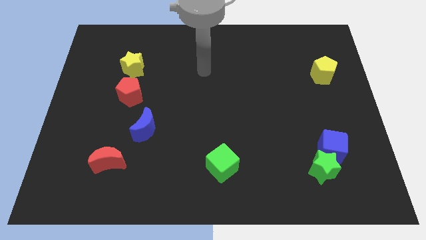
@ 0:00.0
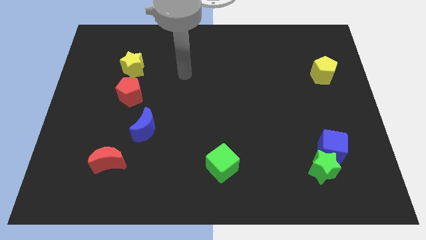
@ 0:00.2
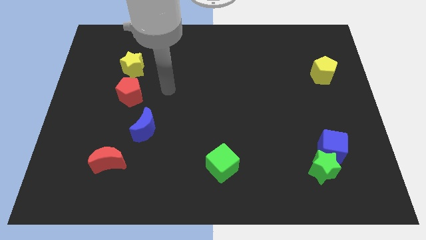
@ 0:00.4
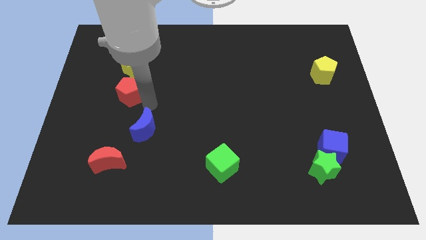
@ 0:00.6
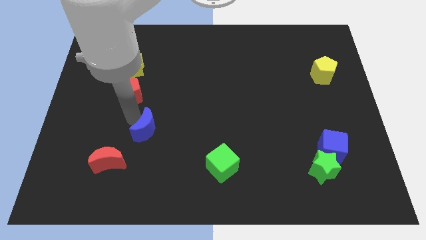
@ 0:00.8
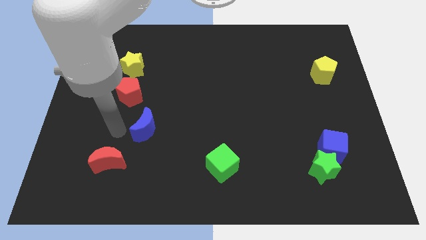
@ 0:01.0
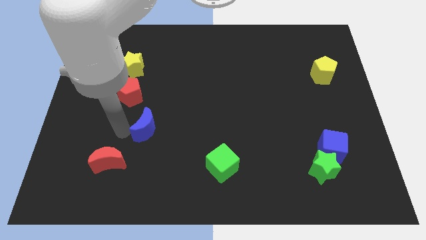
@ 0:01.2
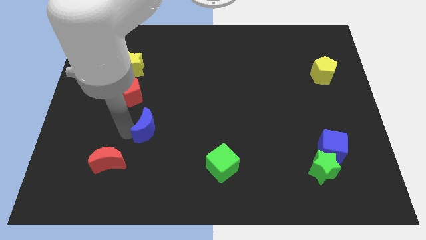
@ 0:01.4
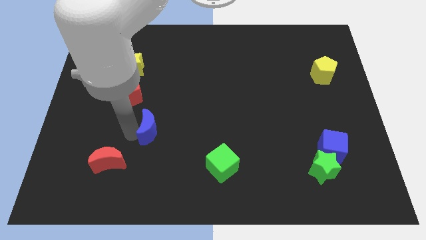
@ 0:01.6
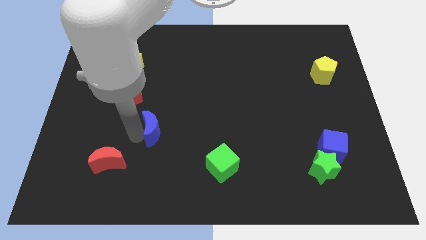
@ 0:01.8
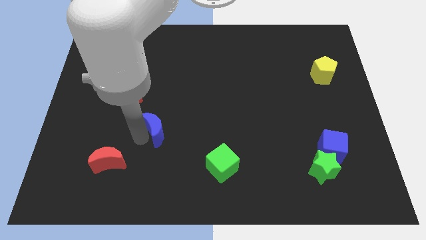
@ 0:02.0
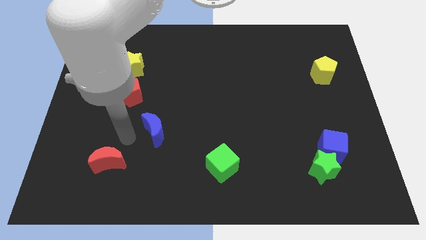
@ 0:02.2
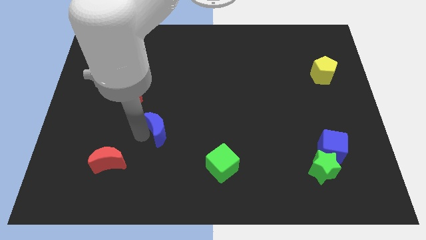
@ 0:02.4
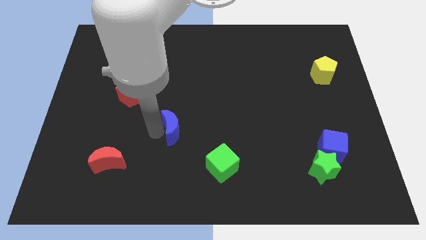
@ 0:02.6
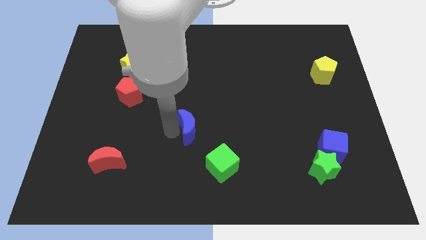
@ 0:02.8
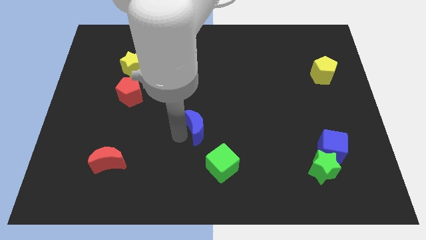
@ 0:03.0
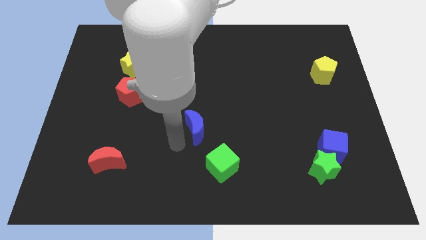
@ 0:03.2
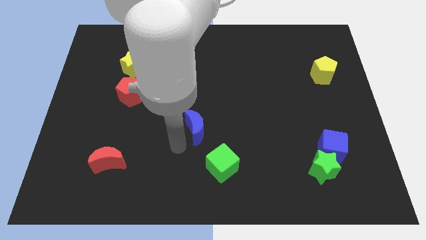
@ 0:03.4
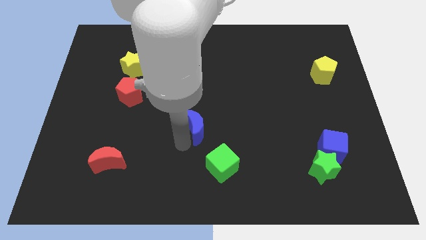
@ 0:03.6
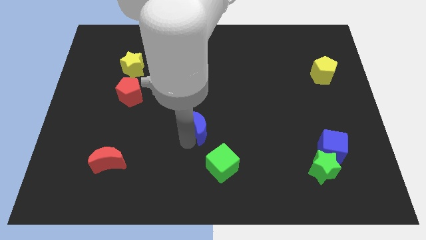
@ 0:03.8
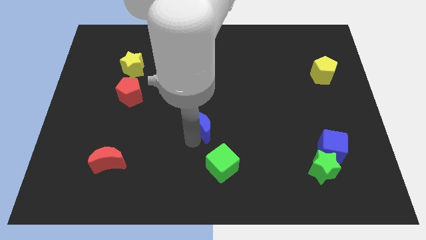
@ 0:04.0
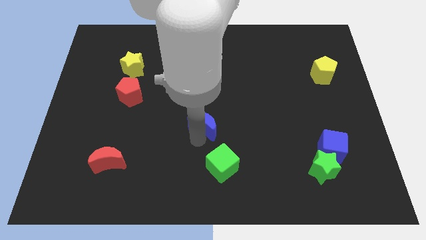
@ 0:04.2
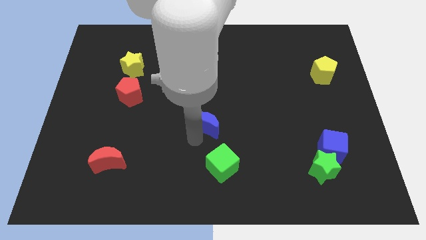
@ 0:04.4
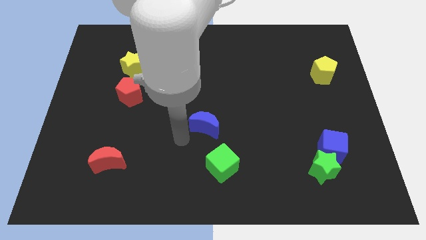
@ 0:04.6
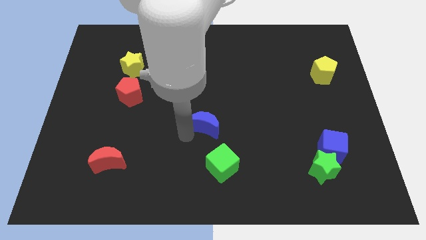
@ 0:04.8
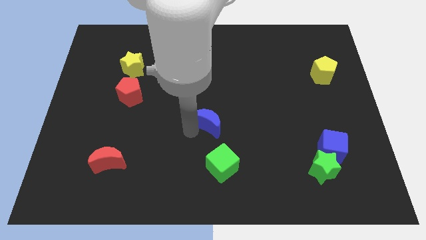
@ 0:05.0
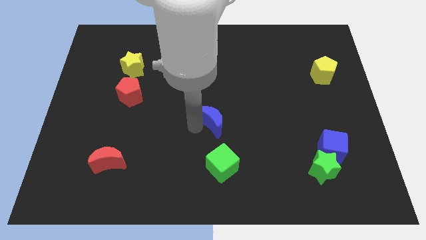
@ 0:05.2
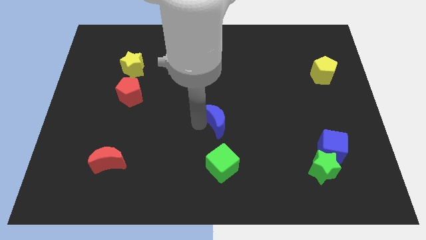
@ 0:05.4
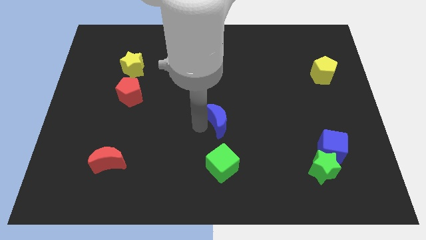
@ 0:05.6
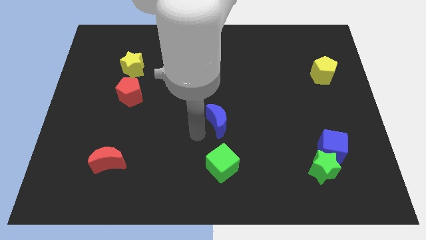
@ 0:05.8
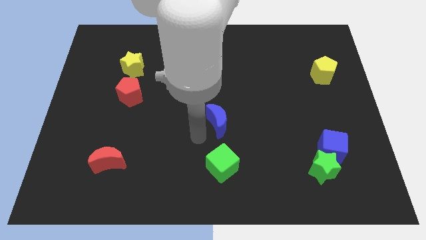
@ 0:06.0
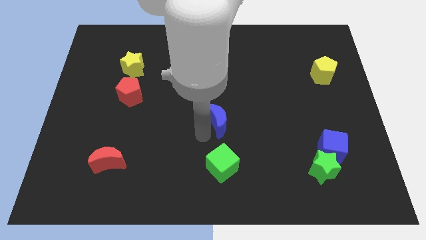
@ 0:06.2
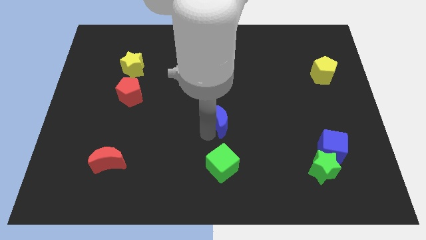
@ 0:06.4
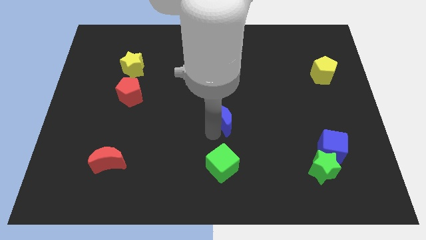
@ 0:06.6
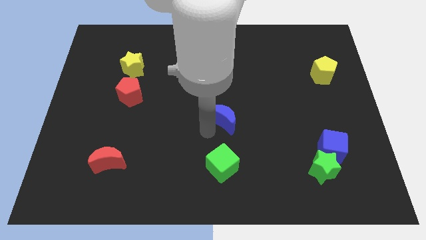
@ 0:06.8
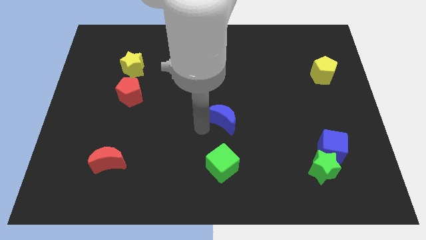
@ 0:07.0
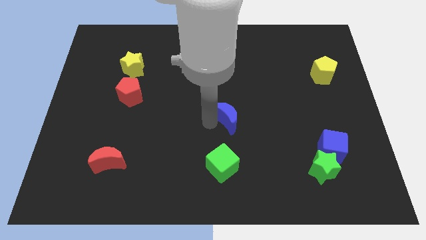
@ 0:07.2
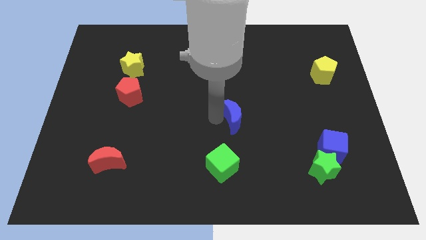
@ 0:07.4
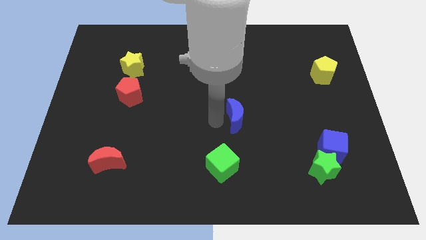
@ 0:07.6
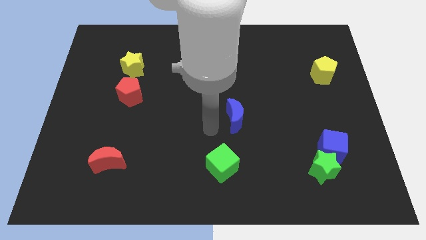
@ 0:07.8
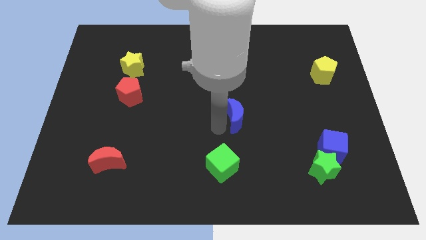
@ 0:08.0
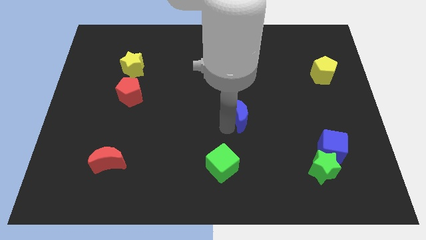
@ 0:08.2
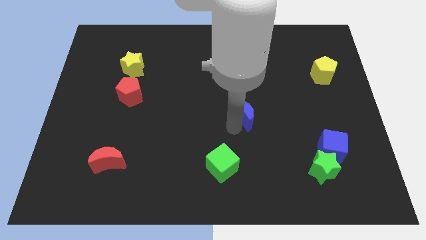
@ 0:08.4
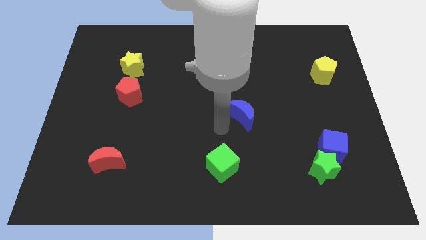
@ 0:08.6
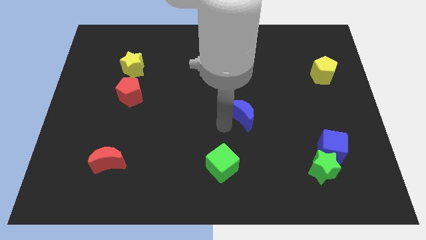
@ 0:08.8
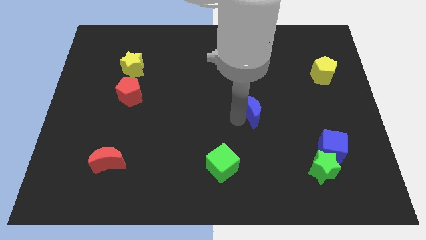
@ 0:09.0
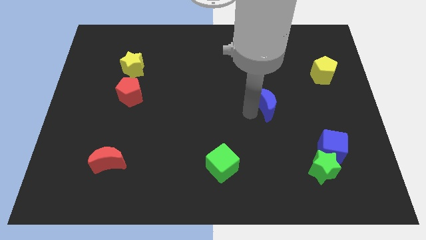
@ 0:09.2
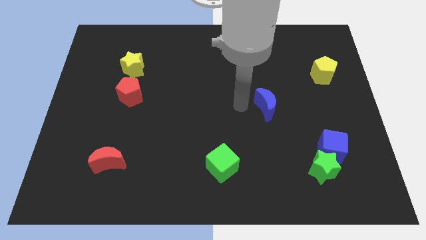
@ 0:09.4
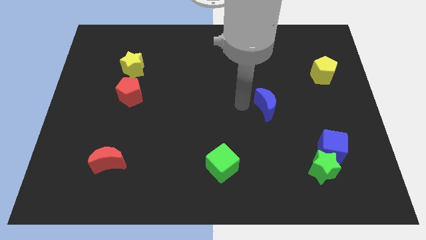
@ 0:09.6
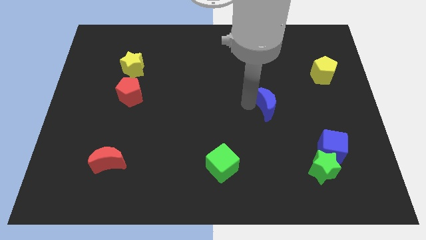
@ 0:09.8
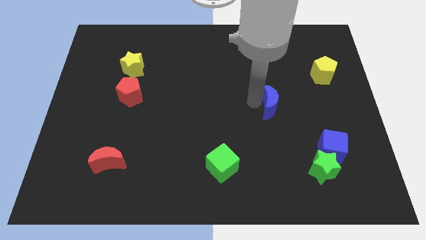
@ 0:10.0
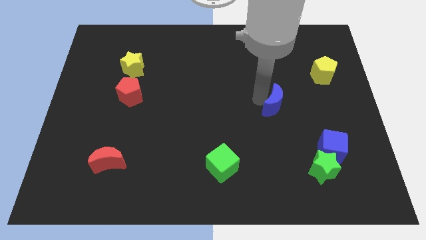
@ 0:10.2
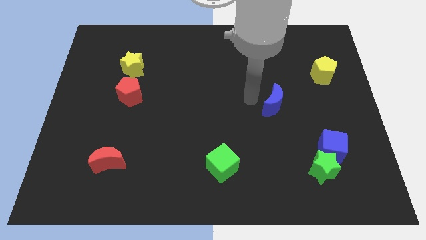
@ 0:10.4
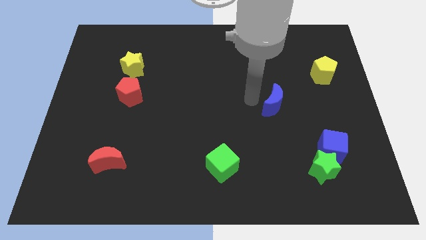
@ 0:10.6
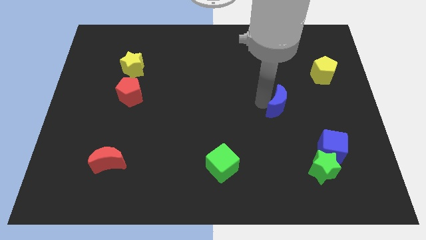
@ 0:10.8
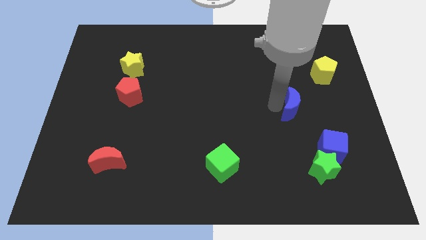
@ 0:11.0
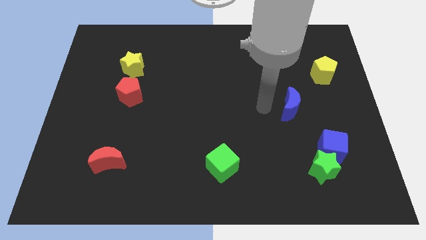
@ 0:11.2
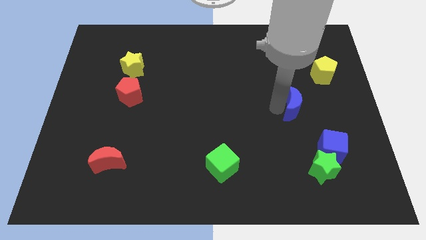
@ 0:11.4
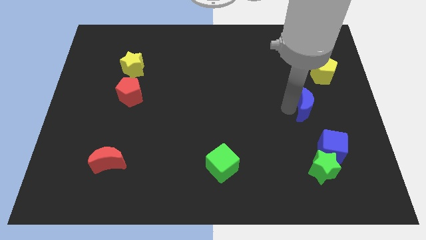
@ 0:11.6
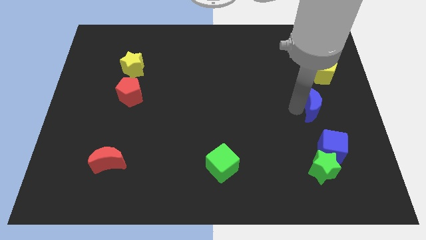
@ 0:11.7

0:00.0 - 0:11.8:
slide the blue moon below the yellow pentagon
